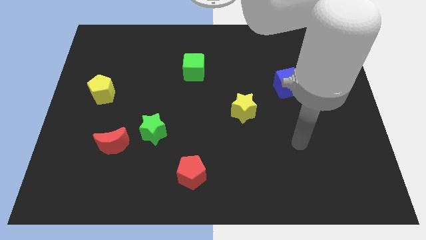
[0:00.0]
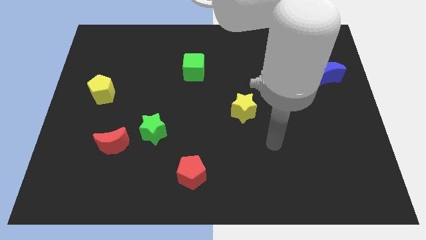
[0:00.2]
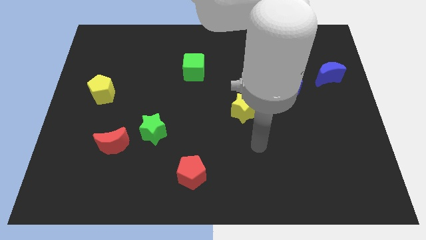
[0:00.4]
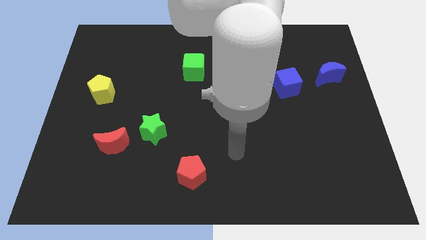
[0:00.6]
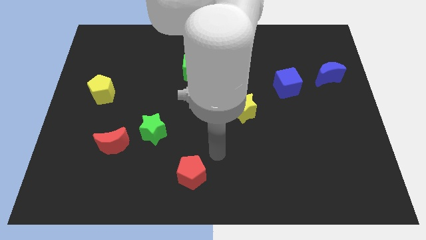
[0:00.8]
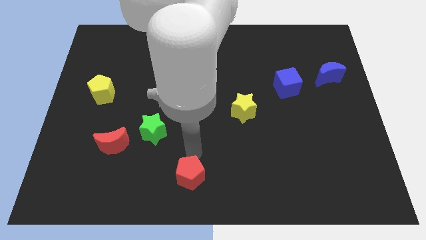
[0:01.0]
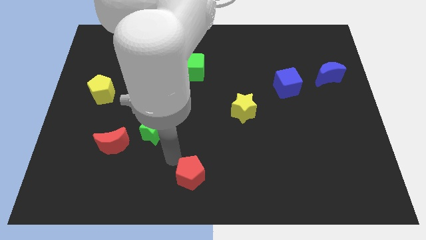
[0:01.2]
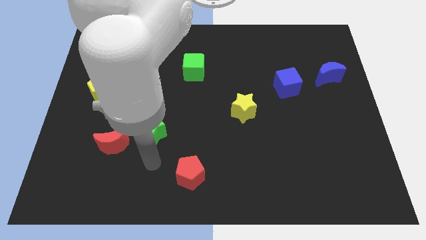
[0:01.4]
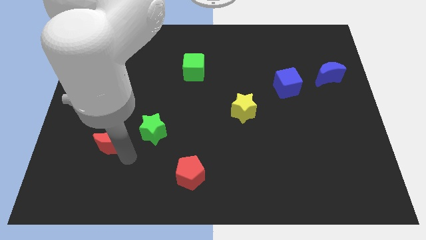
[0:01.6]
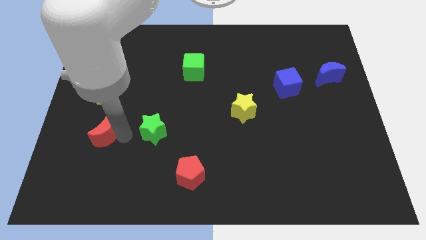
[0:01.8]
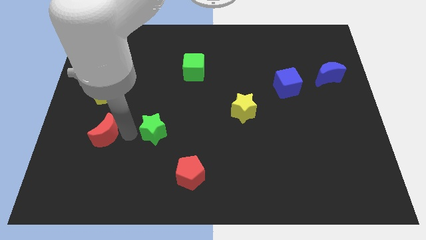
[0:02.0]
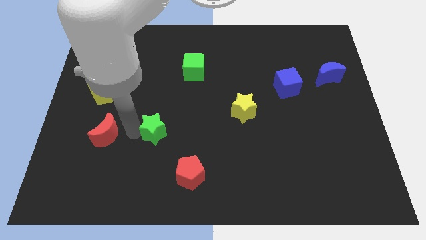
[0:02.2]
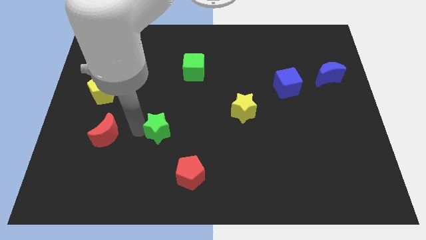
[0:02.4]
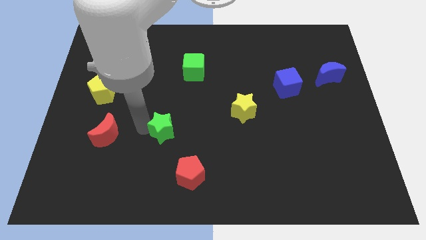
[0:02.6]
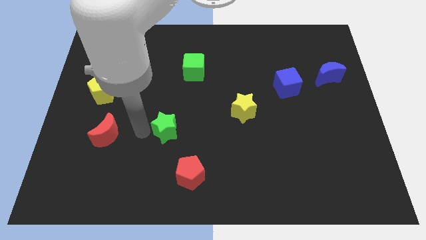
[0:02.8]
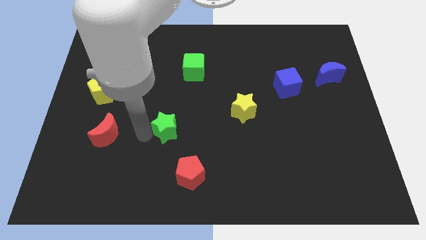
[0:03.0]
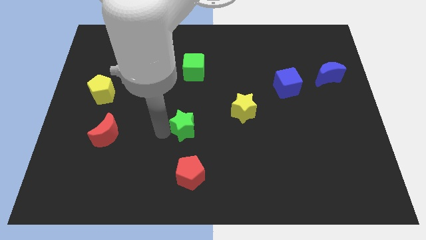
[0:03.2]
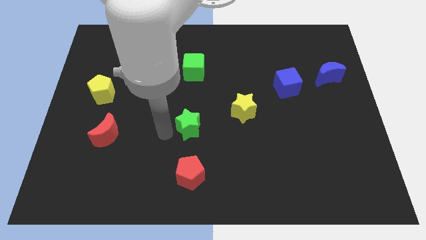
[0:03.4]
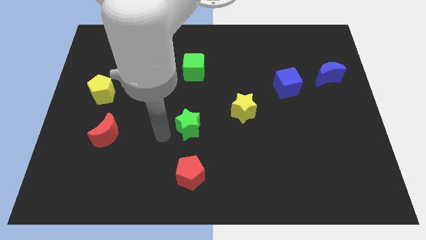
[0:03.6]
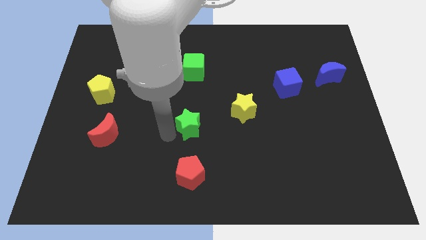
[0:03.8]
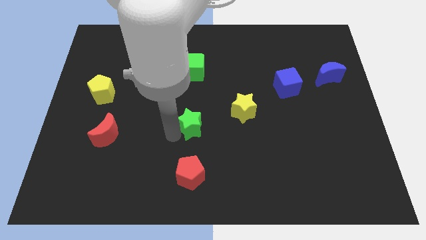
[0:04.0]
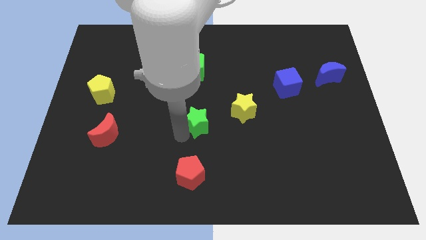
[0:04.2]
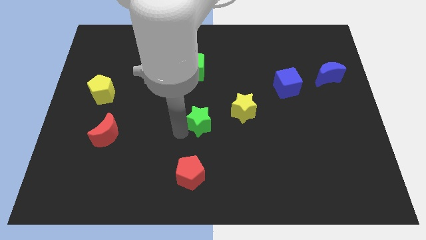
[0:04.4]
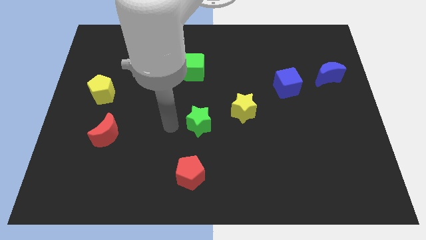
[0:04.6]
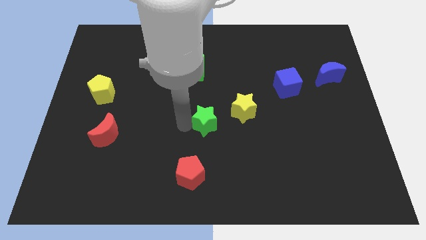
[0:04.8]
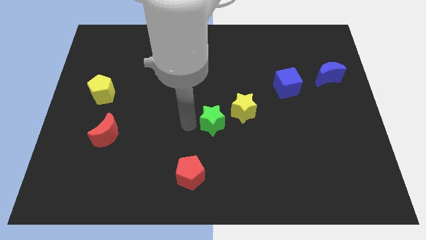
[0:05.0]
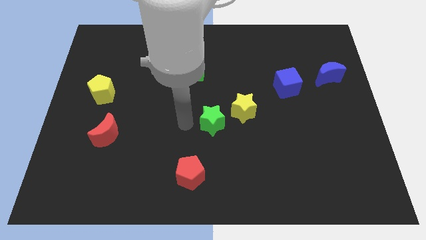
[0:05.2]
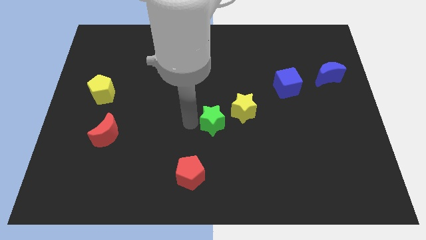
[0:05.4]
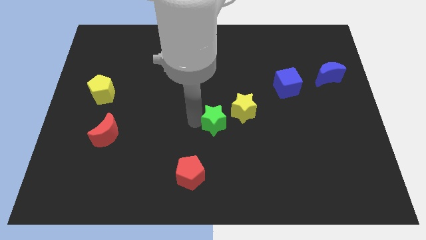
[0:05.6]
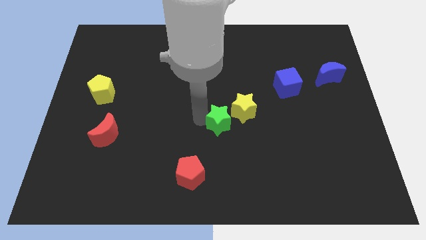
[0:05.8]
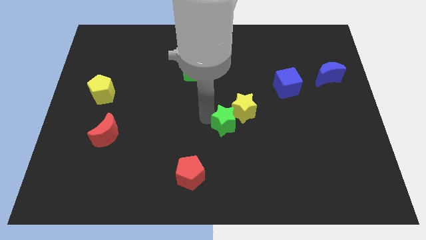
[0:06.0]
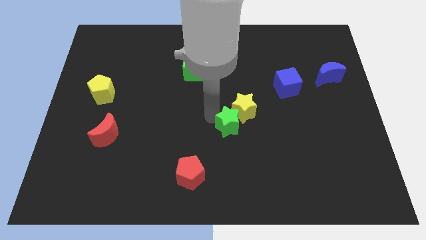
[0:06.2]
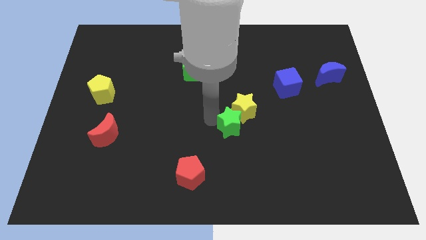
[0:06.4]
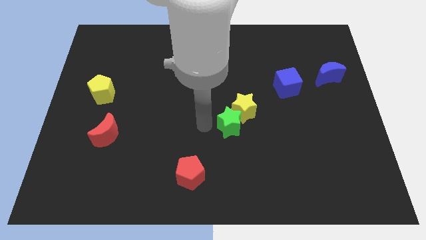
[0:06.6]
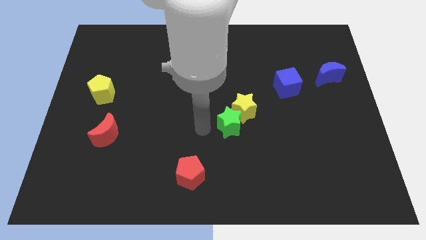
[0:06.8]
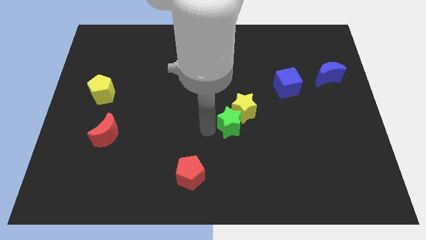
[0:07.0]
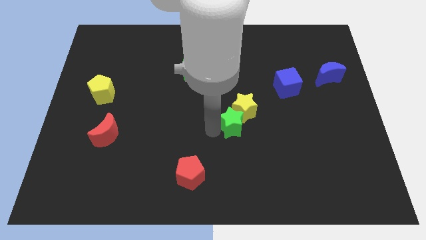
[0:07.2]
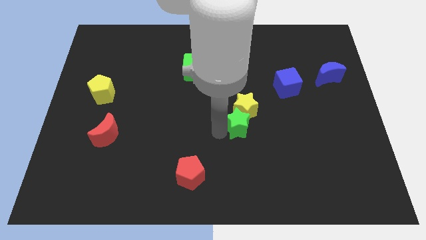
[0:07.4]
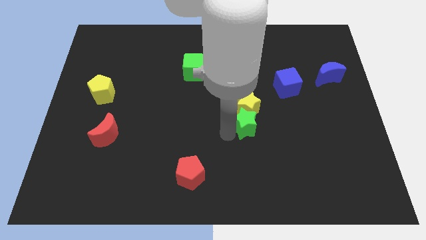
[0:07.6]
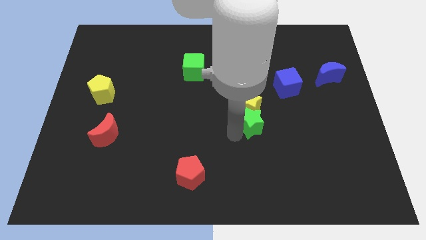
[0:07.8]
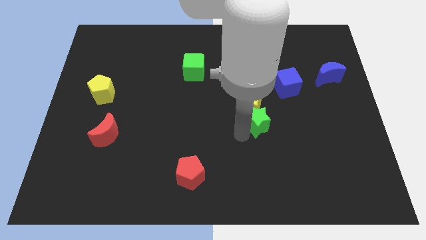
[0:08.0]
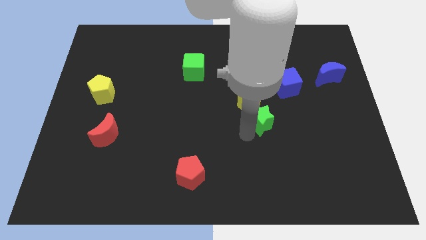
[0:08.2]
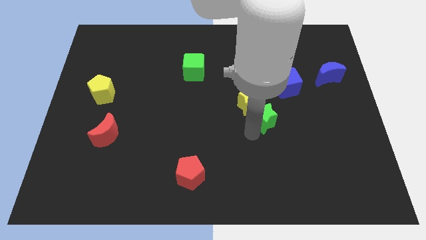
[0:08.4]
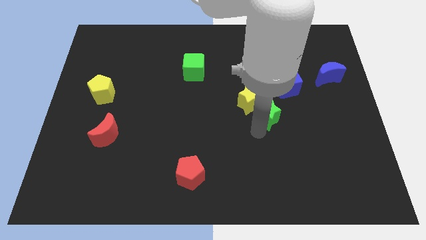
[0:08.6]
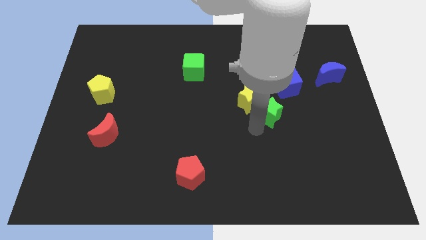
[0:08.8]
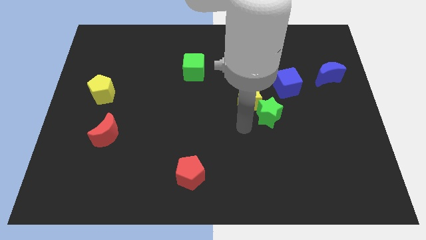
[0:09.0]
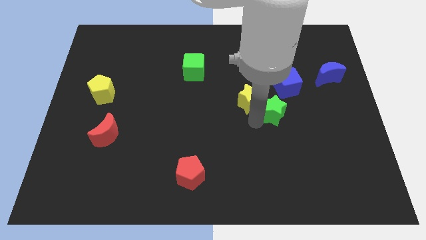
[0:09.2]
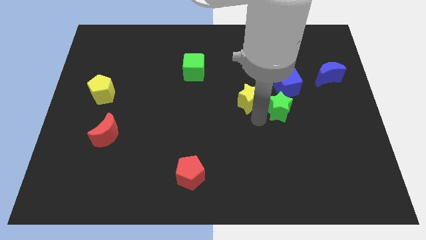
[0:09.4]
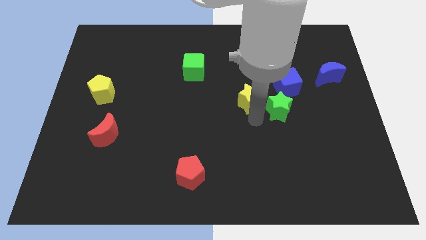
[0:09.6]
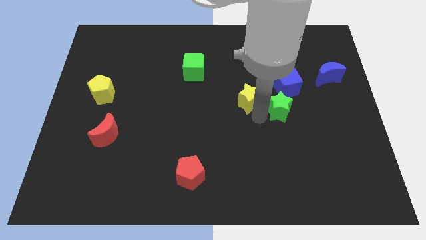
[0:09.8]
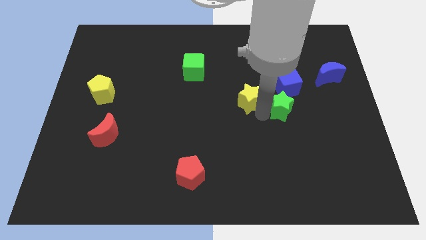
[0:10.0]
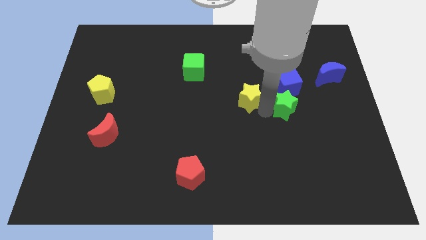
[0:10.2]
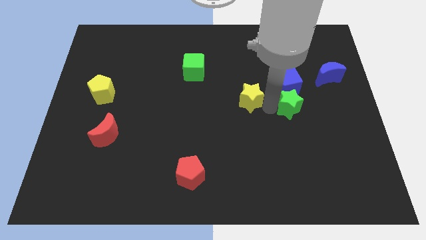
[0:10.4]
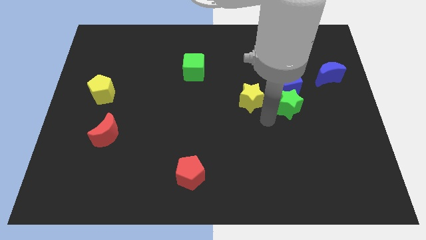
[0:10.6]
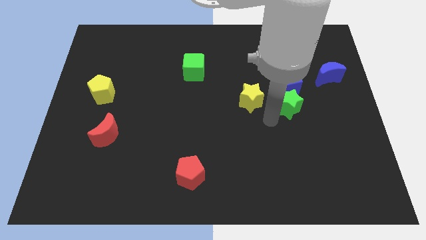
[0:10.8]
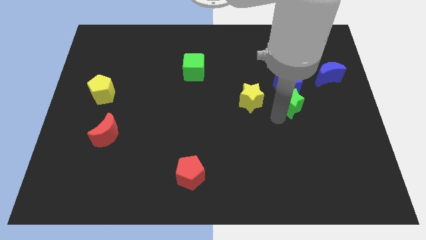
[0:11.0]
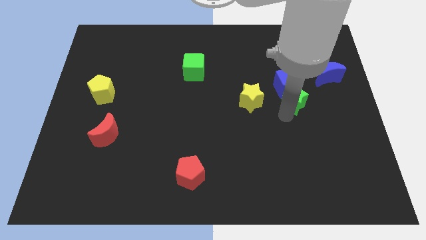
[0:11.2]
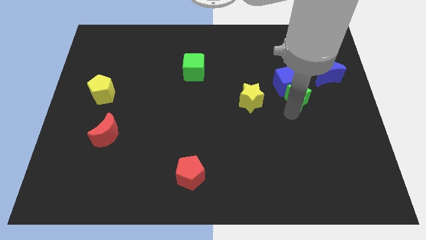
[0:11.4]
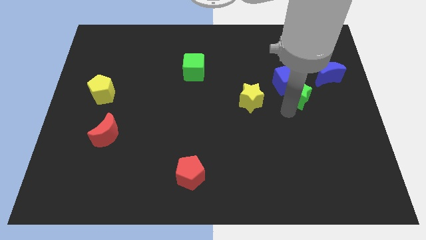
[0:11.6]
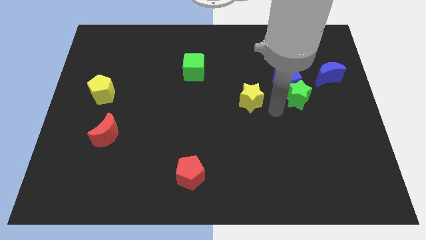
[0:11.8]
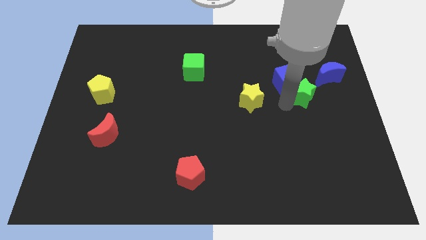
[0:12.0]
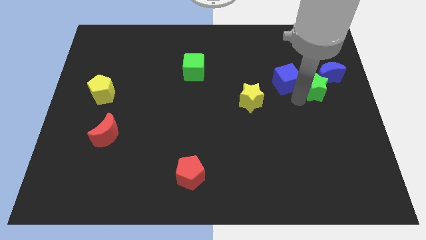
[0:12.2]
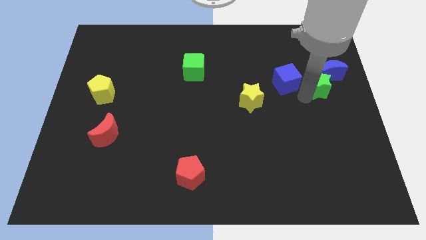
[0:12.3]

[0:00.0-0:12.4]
move the green star to the blue moon
